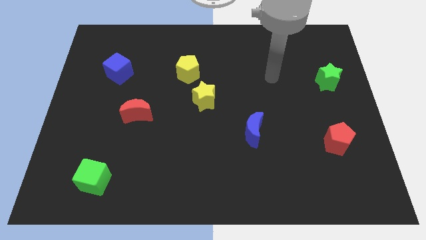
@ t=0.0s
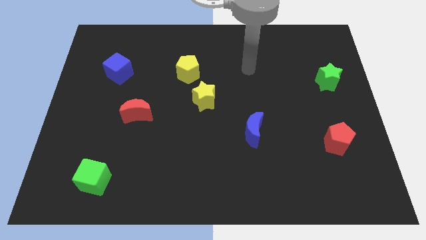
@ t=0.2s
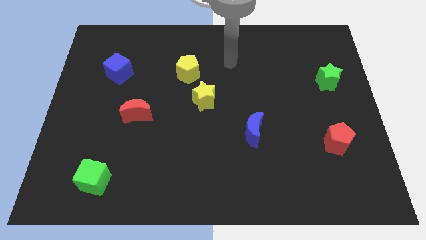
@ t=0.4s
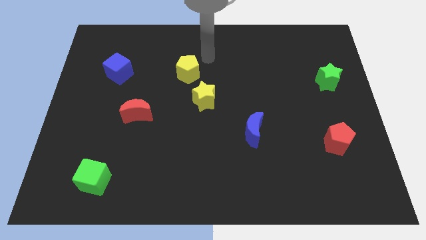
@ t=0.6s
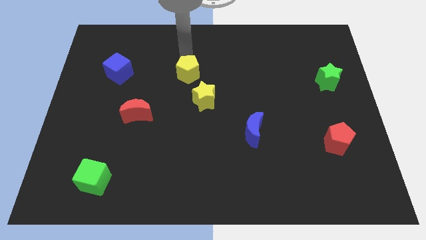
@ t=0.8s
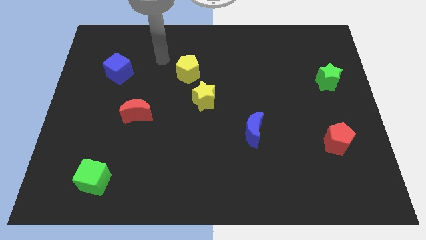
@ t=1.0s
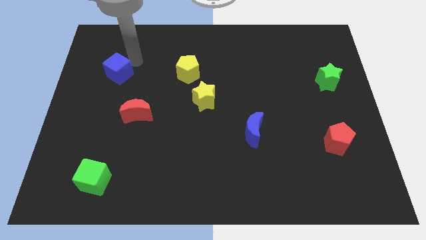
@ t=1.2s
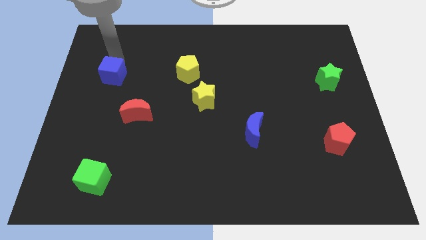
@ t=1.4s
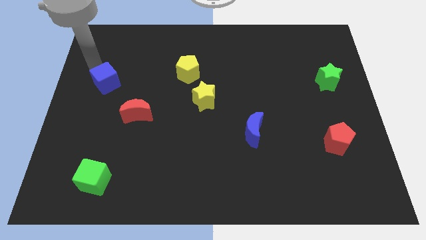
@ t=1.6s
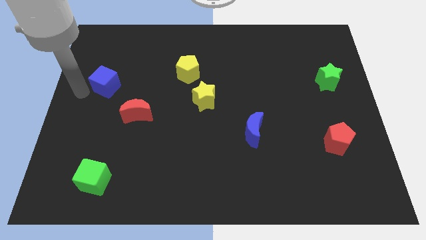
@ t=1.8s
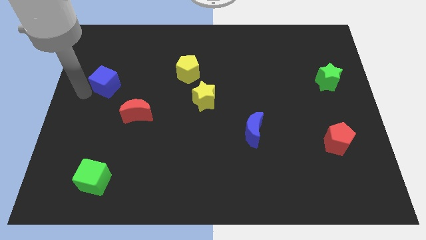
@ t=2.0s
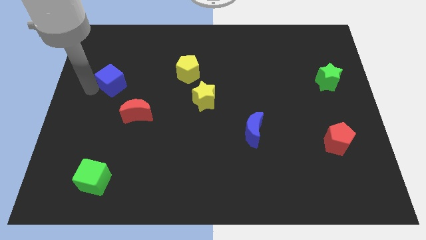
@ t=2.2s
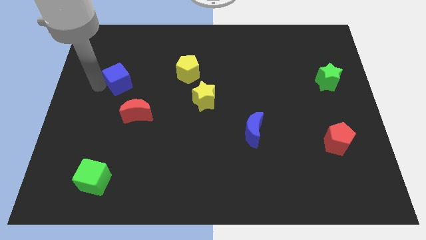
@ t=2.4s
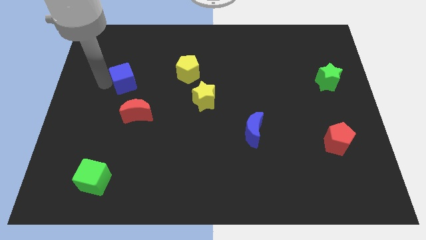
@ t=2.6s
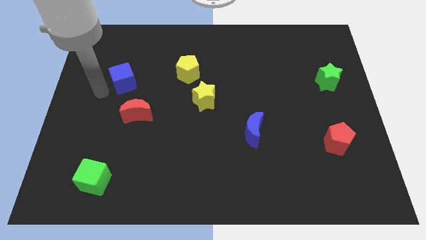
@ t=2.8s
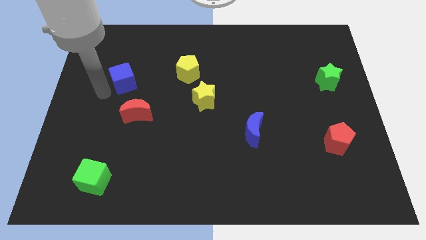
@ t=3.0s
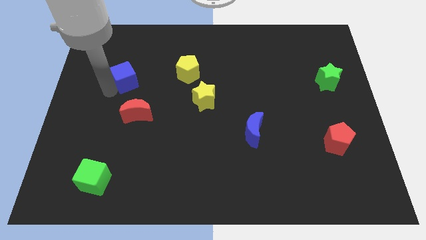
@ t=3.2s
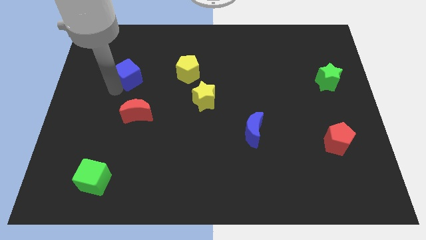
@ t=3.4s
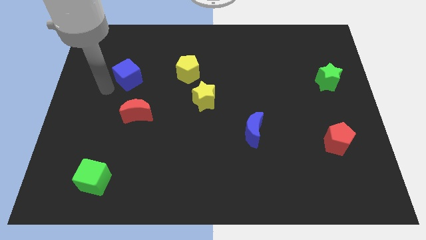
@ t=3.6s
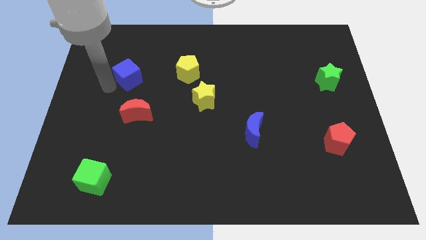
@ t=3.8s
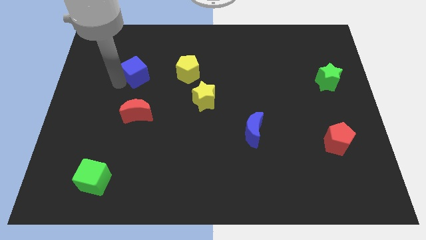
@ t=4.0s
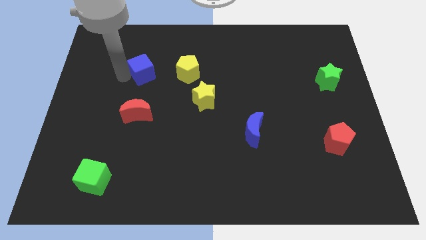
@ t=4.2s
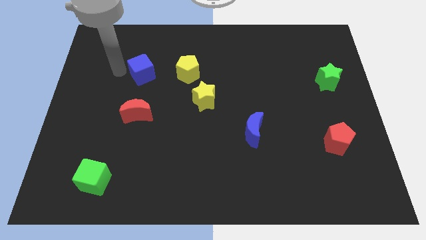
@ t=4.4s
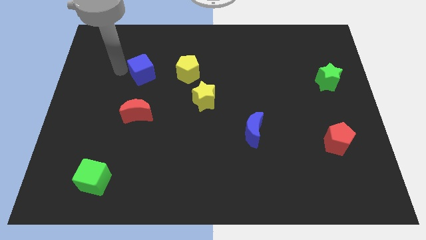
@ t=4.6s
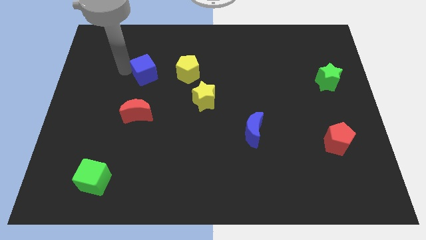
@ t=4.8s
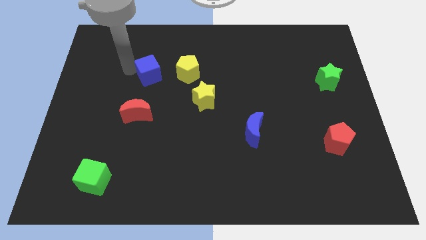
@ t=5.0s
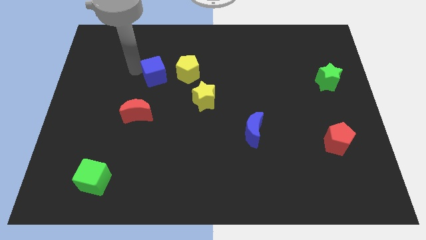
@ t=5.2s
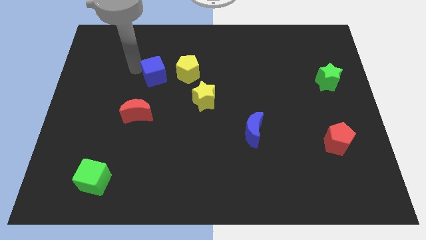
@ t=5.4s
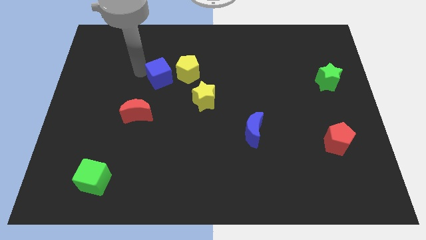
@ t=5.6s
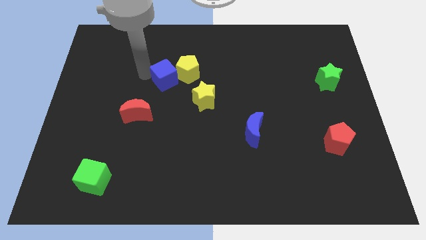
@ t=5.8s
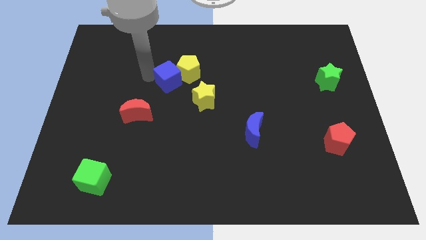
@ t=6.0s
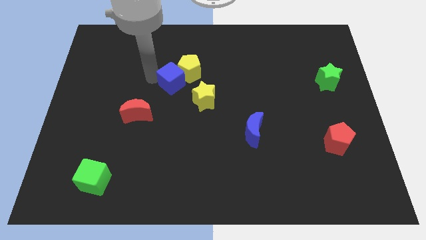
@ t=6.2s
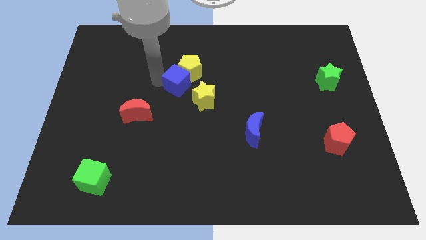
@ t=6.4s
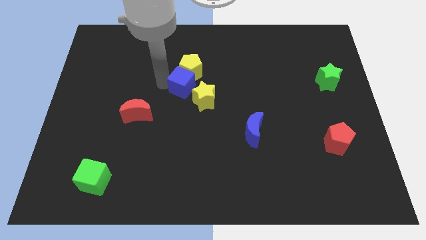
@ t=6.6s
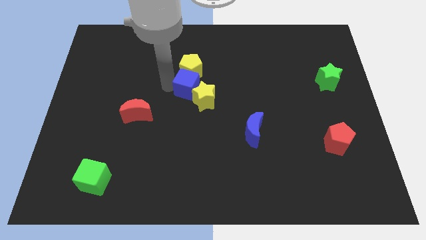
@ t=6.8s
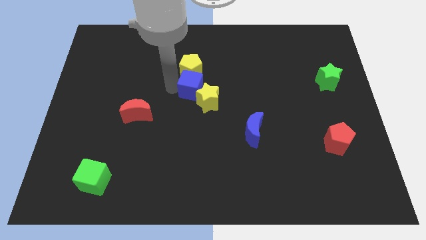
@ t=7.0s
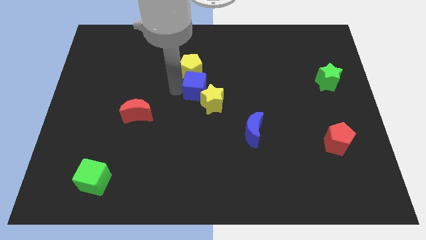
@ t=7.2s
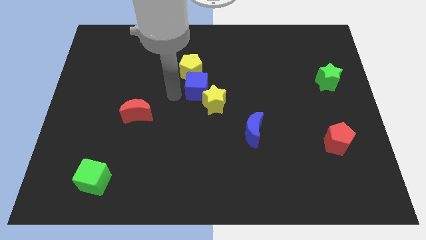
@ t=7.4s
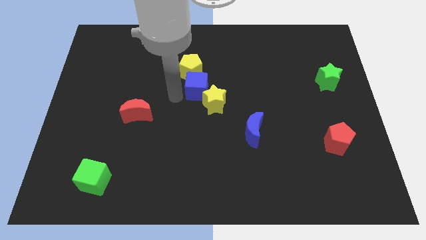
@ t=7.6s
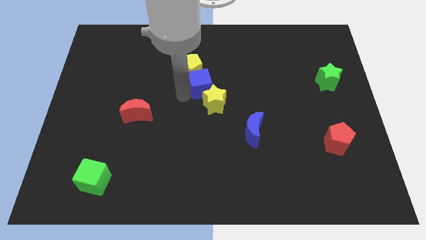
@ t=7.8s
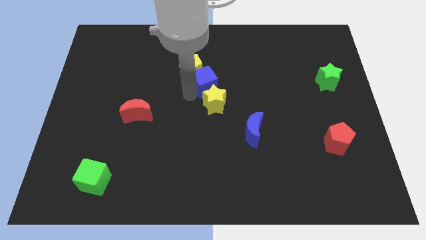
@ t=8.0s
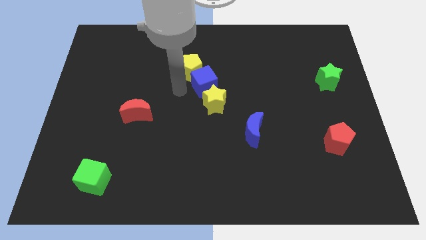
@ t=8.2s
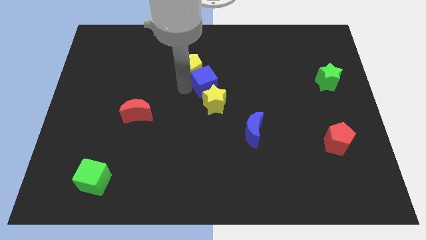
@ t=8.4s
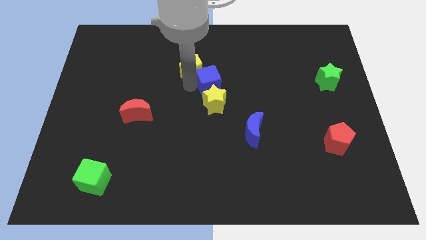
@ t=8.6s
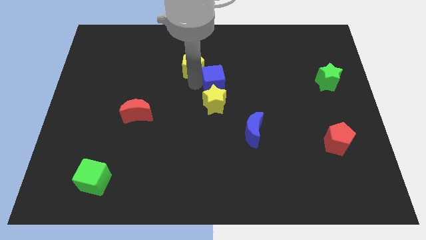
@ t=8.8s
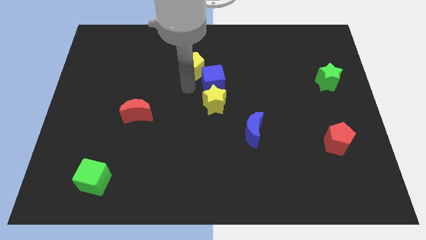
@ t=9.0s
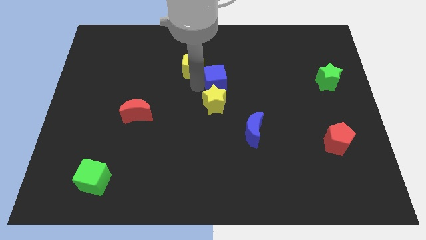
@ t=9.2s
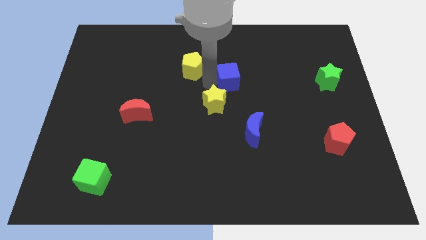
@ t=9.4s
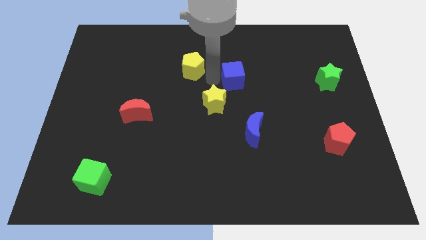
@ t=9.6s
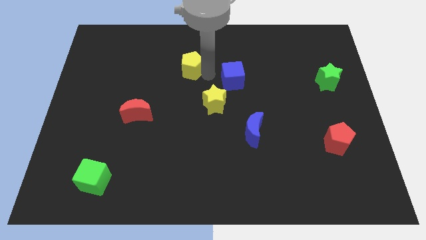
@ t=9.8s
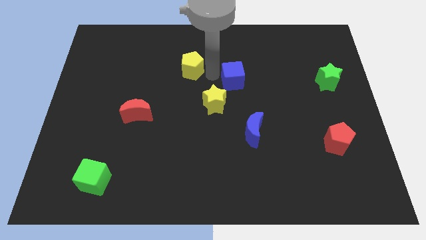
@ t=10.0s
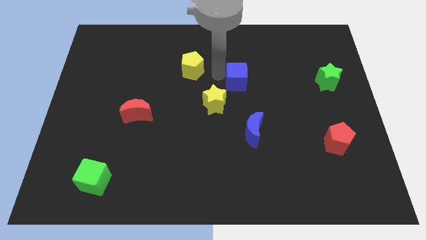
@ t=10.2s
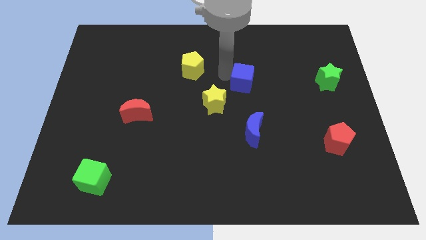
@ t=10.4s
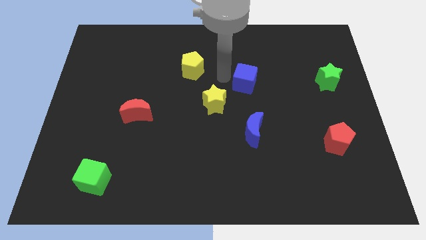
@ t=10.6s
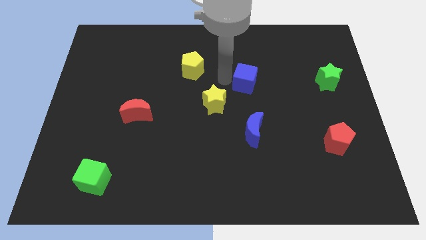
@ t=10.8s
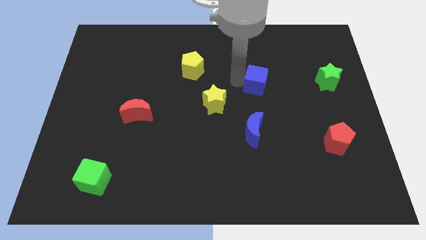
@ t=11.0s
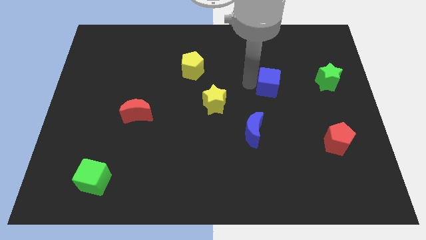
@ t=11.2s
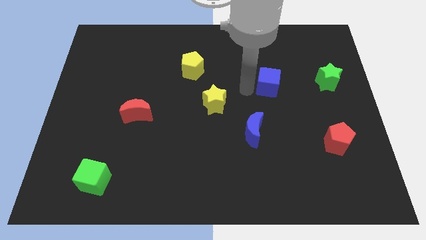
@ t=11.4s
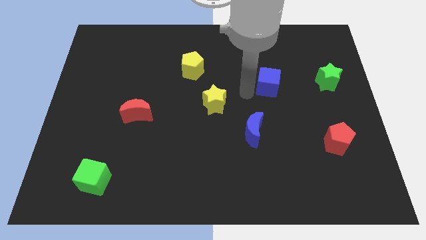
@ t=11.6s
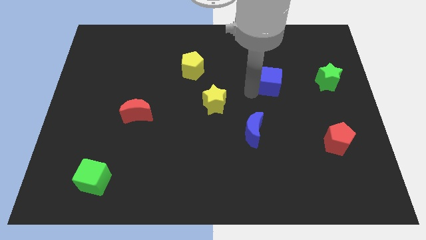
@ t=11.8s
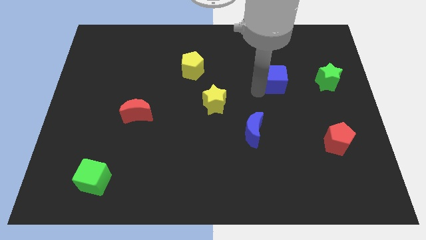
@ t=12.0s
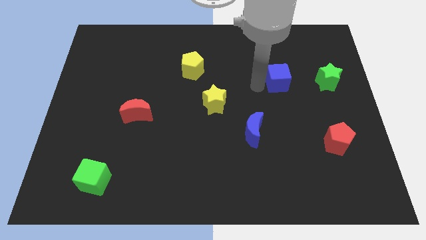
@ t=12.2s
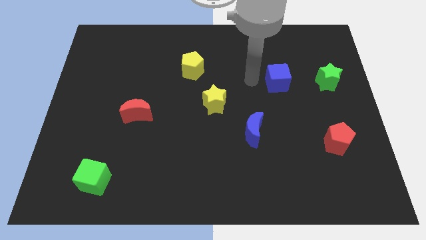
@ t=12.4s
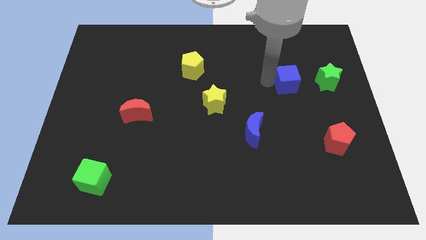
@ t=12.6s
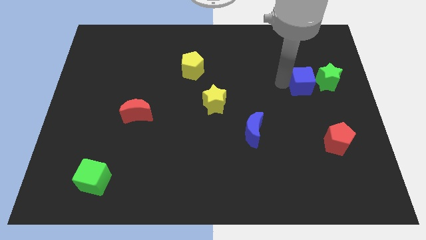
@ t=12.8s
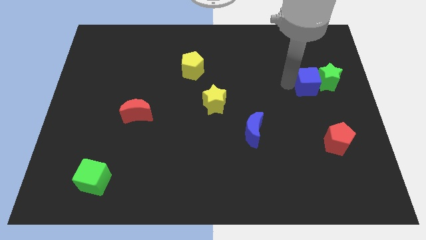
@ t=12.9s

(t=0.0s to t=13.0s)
slide the blue cube close to the green star
